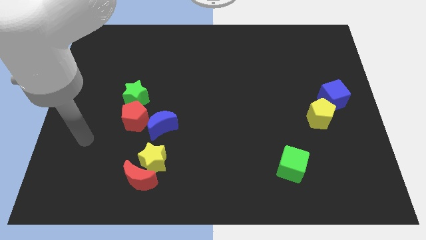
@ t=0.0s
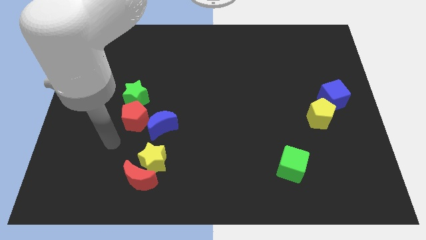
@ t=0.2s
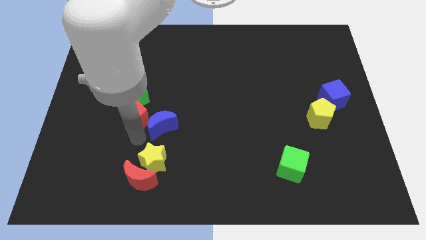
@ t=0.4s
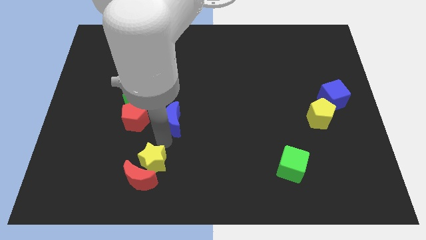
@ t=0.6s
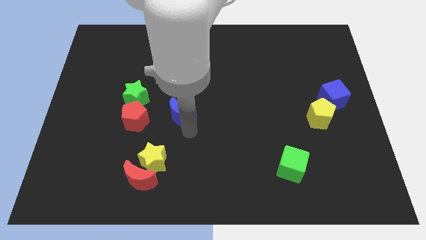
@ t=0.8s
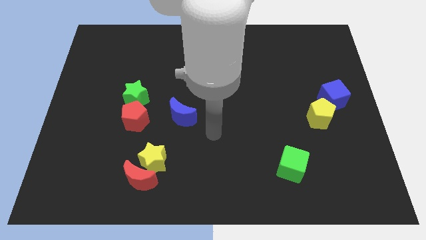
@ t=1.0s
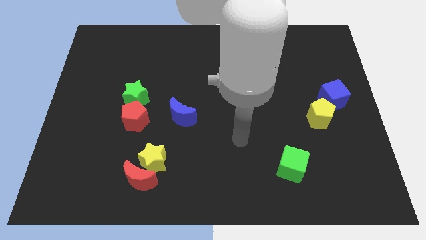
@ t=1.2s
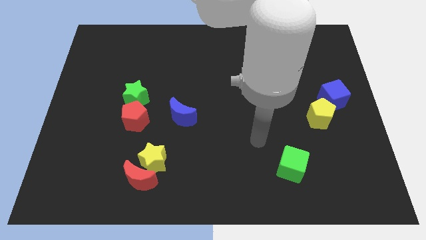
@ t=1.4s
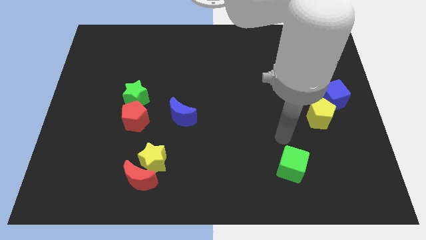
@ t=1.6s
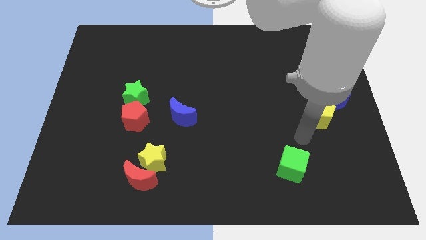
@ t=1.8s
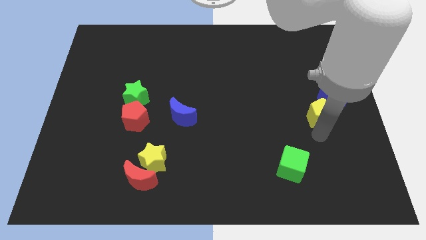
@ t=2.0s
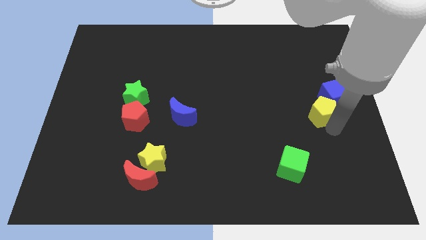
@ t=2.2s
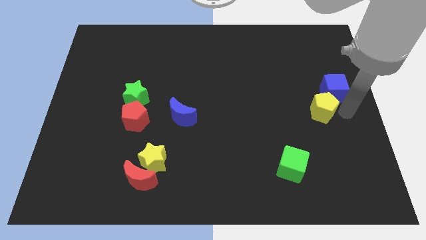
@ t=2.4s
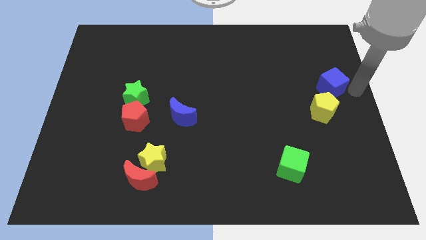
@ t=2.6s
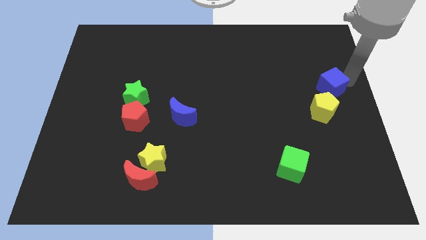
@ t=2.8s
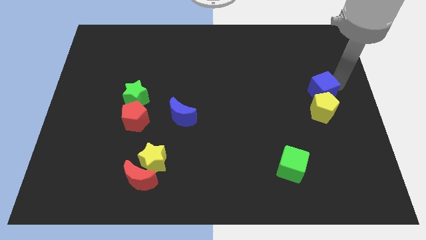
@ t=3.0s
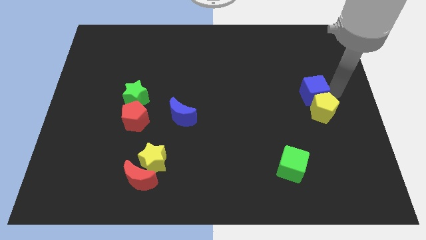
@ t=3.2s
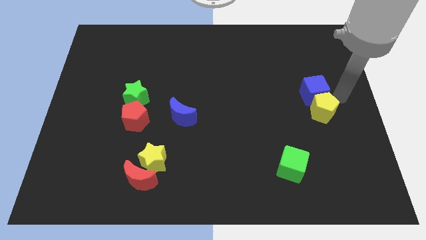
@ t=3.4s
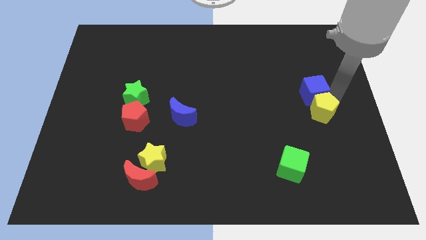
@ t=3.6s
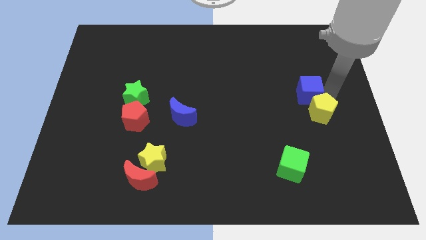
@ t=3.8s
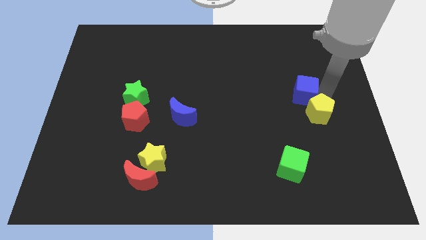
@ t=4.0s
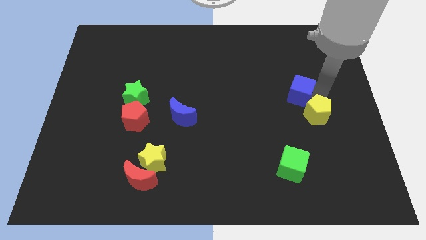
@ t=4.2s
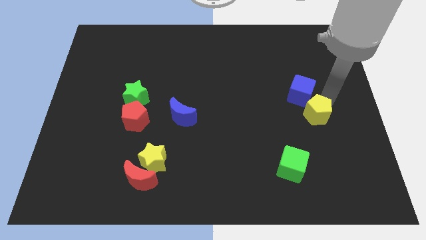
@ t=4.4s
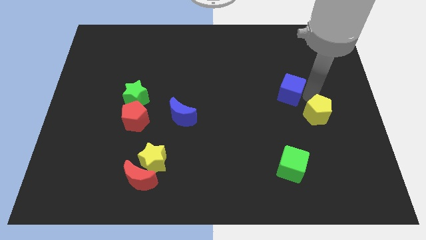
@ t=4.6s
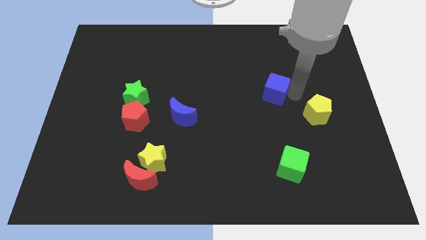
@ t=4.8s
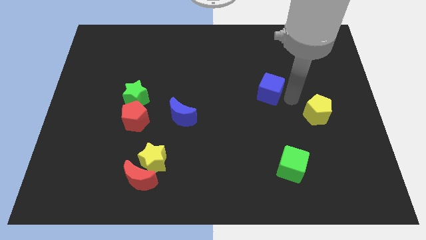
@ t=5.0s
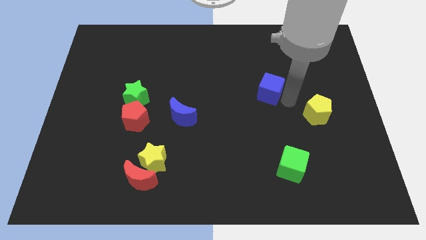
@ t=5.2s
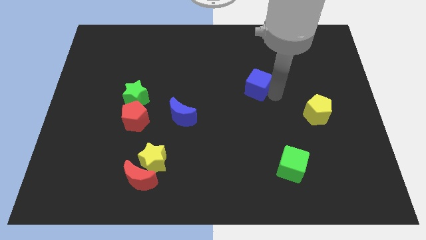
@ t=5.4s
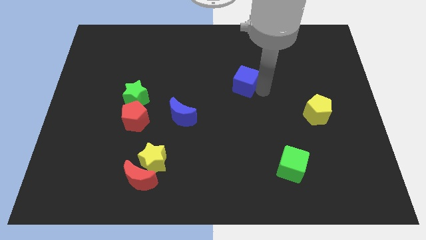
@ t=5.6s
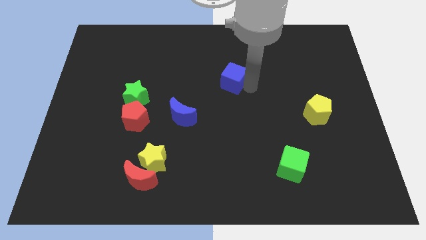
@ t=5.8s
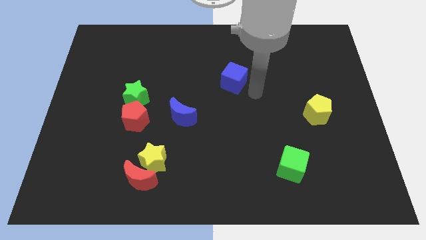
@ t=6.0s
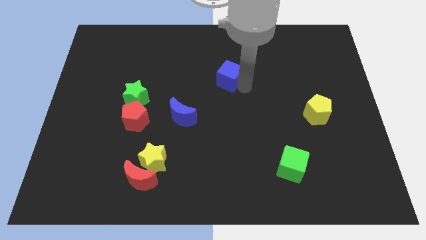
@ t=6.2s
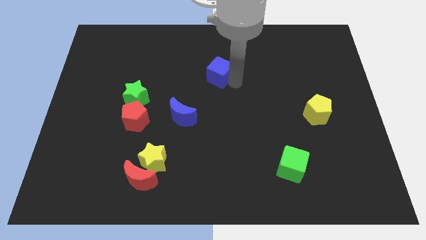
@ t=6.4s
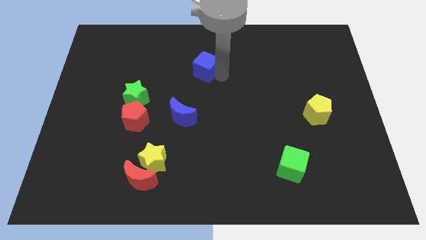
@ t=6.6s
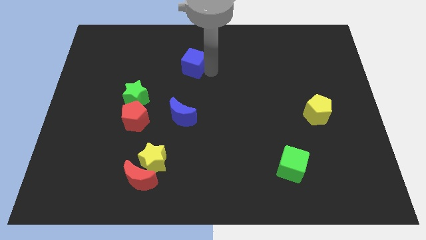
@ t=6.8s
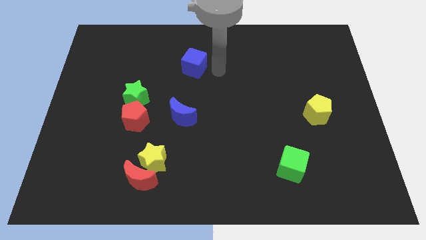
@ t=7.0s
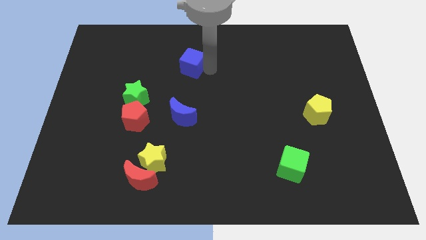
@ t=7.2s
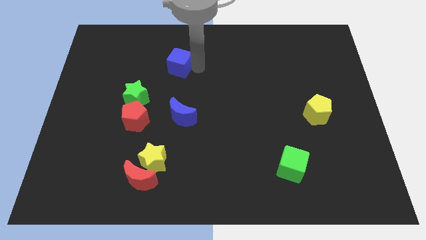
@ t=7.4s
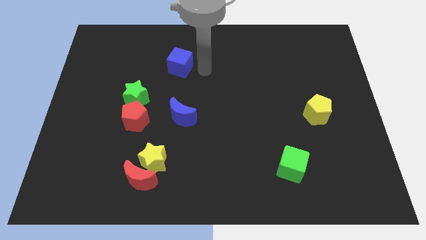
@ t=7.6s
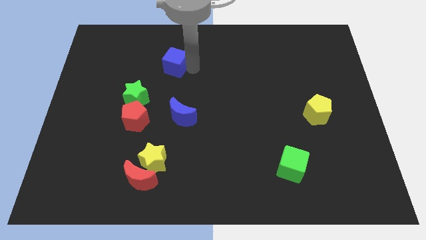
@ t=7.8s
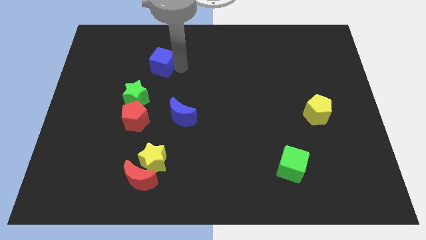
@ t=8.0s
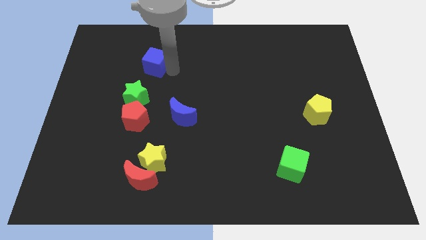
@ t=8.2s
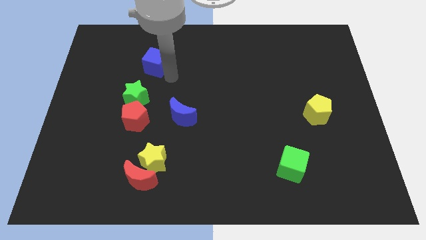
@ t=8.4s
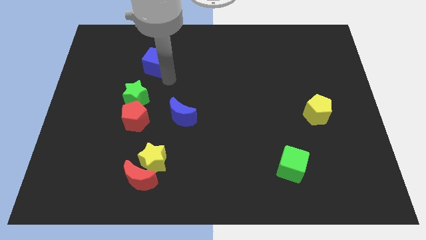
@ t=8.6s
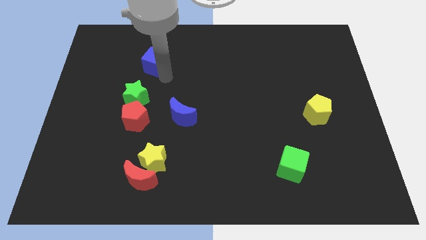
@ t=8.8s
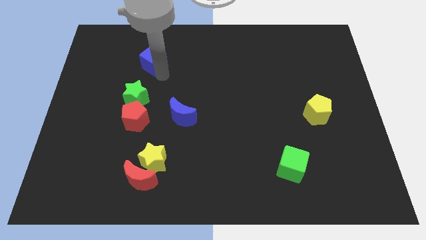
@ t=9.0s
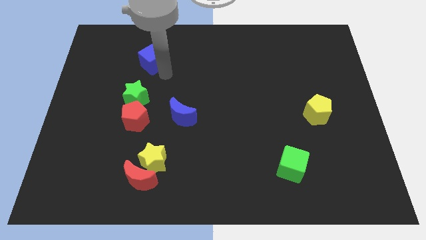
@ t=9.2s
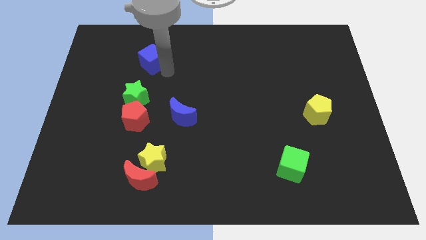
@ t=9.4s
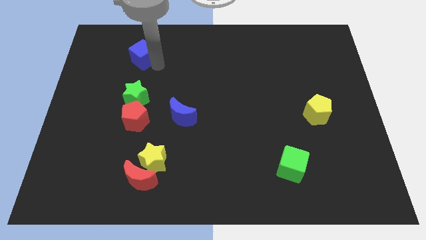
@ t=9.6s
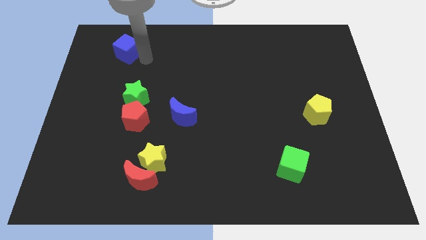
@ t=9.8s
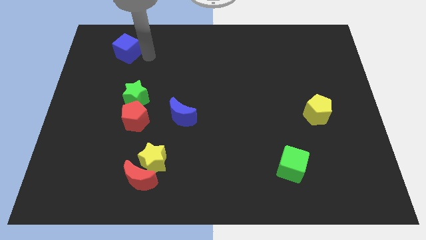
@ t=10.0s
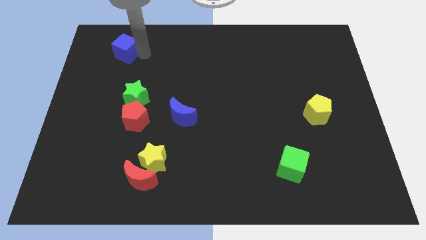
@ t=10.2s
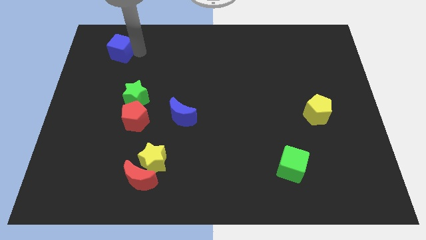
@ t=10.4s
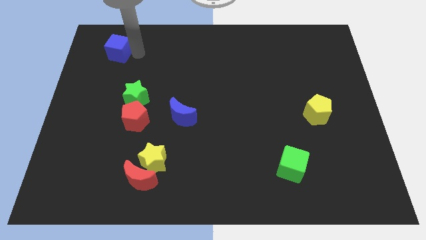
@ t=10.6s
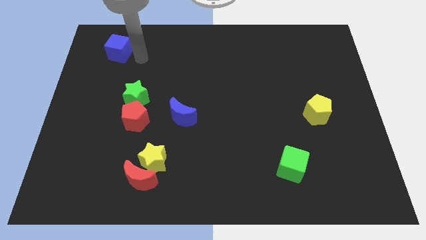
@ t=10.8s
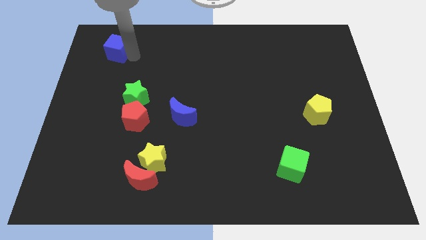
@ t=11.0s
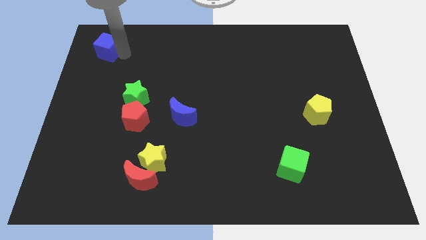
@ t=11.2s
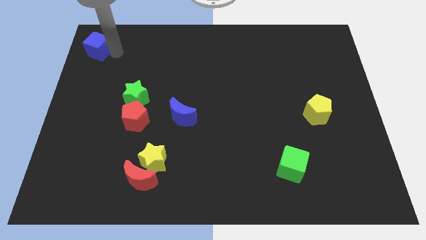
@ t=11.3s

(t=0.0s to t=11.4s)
put the blue cube to the top left of the board
